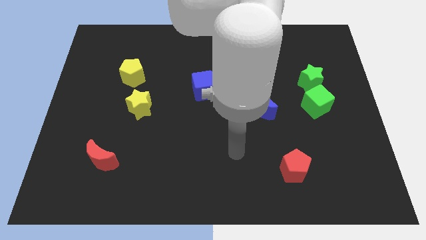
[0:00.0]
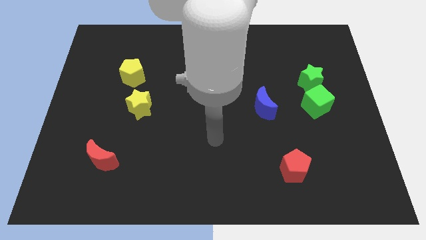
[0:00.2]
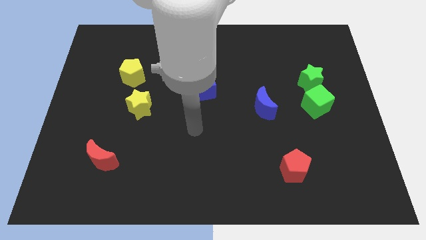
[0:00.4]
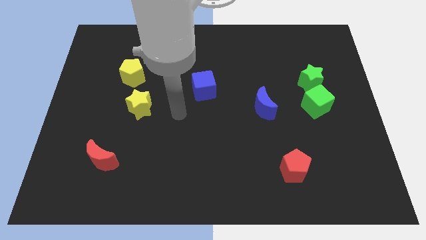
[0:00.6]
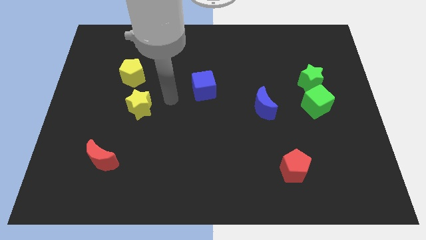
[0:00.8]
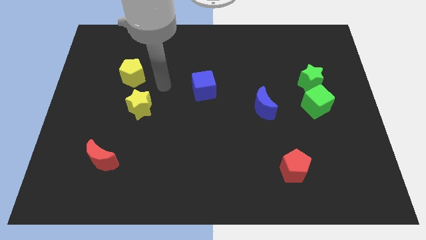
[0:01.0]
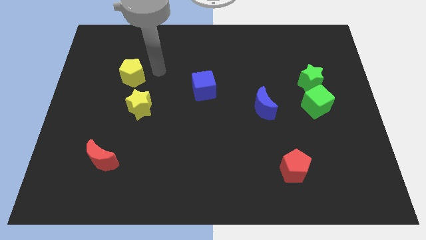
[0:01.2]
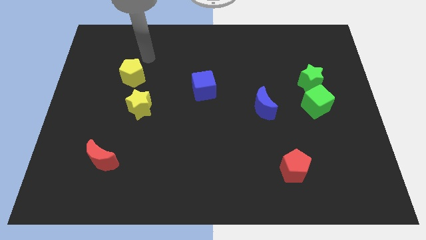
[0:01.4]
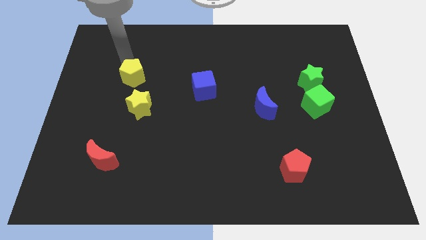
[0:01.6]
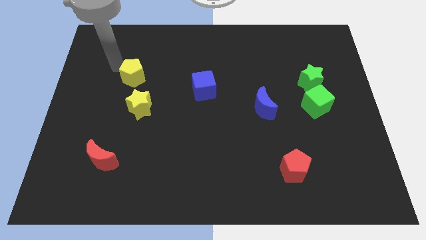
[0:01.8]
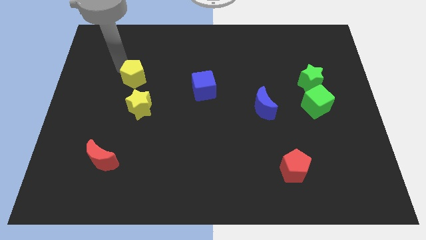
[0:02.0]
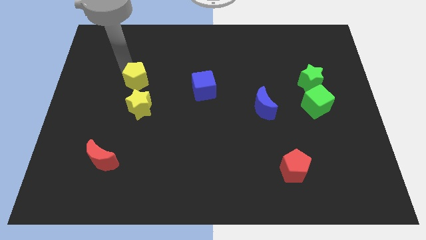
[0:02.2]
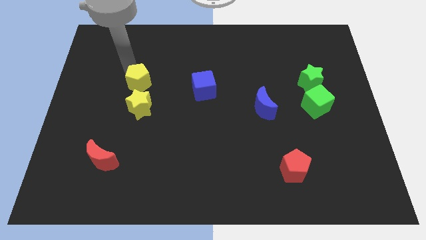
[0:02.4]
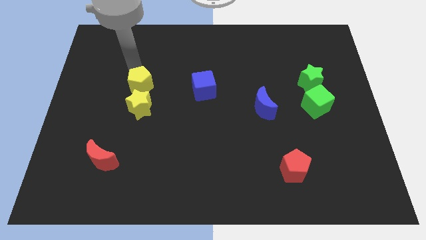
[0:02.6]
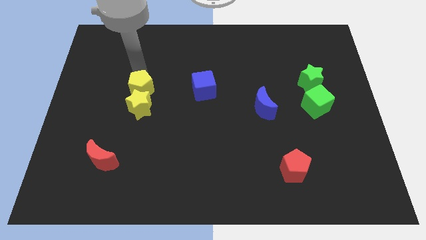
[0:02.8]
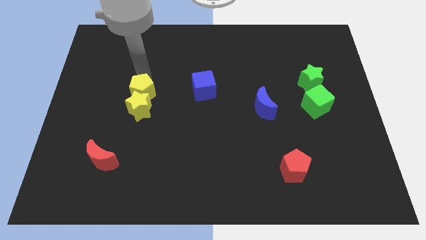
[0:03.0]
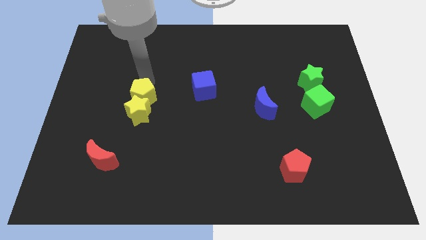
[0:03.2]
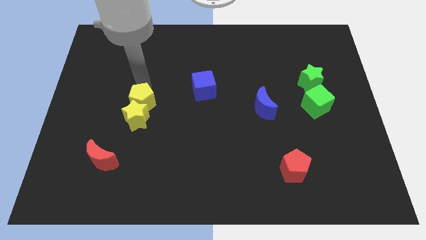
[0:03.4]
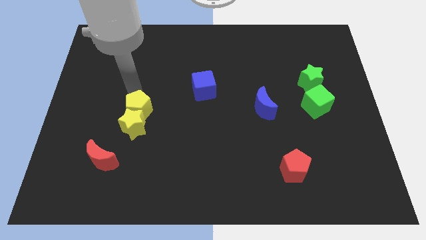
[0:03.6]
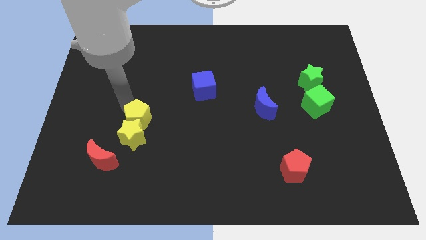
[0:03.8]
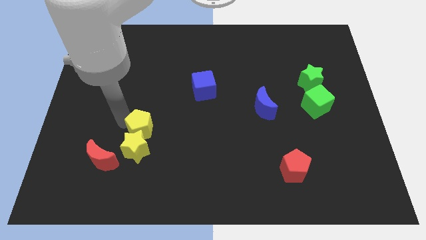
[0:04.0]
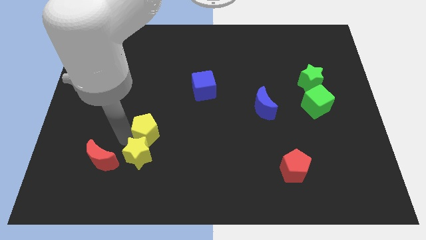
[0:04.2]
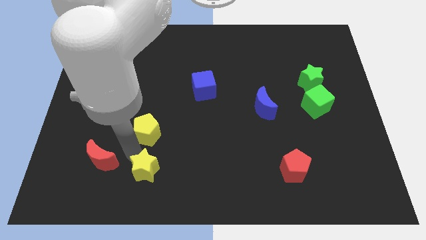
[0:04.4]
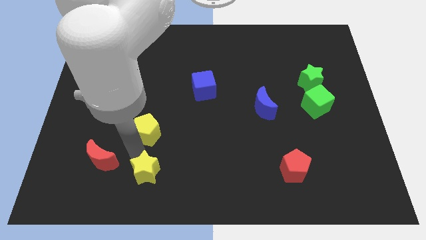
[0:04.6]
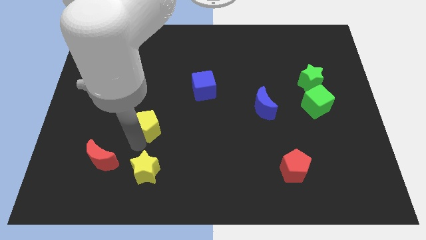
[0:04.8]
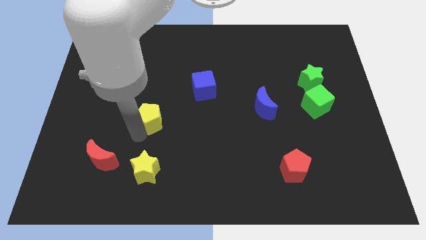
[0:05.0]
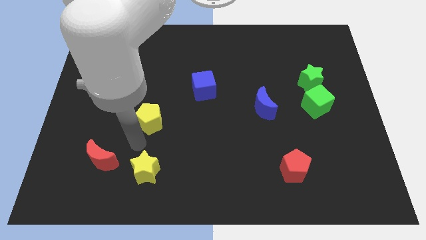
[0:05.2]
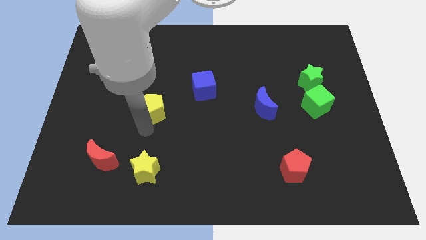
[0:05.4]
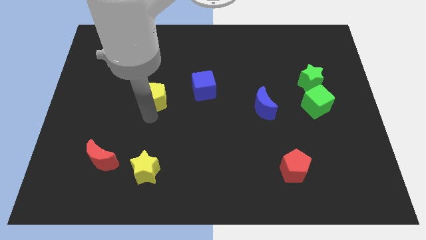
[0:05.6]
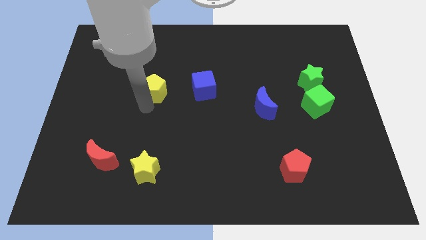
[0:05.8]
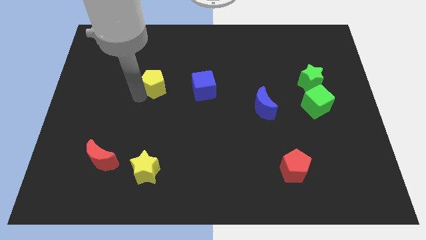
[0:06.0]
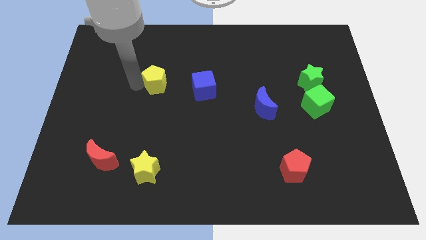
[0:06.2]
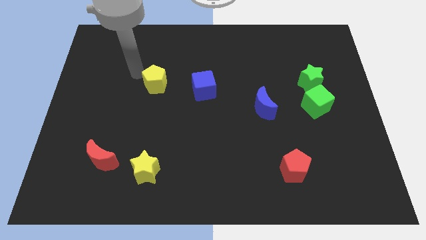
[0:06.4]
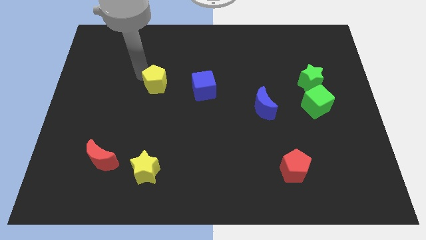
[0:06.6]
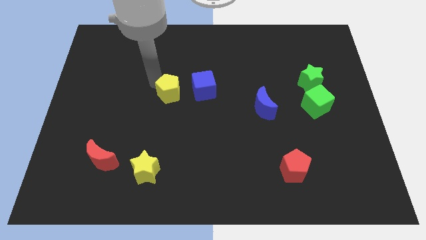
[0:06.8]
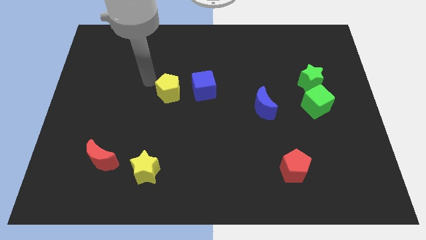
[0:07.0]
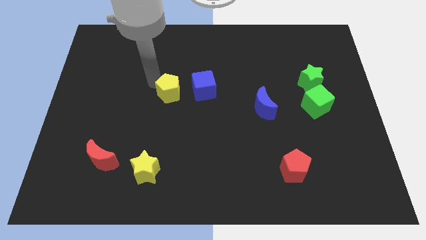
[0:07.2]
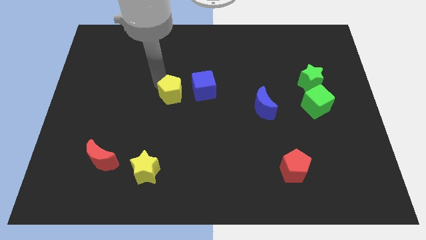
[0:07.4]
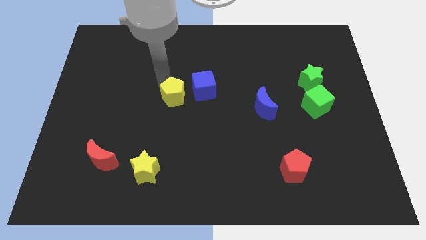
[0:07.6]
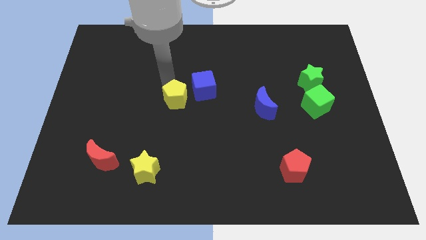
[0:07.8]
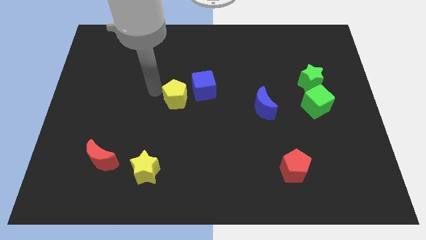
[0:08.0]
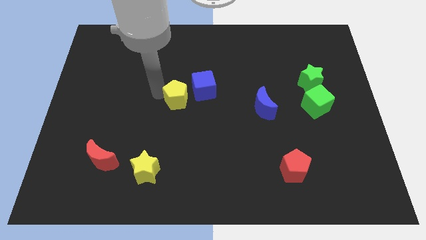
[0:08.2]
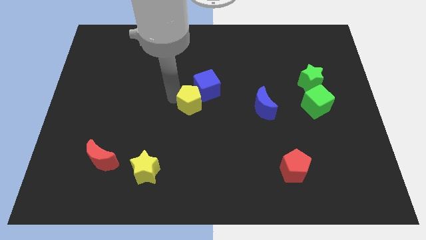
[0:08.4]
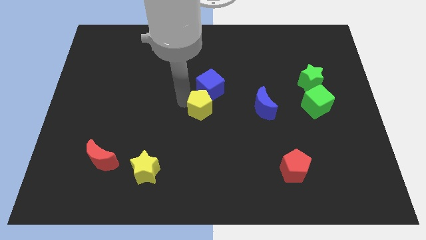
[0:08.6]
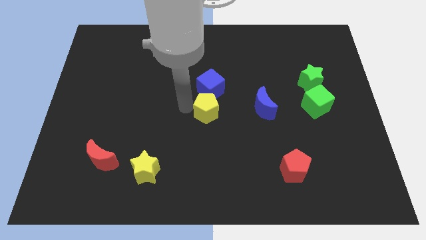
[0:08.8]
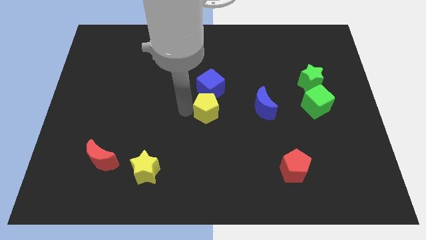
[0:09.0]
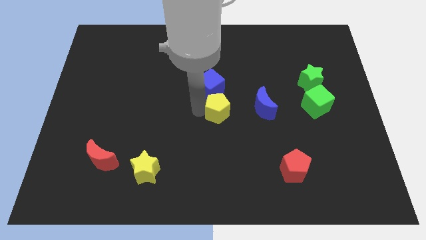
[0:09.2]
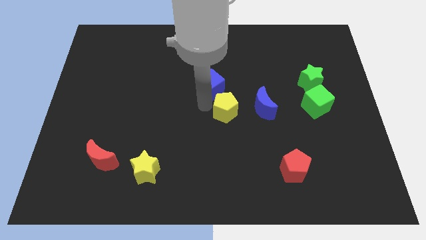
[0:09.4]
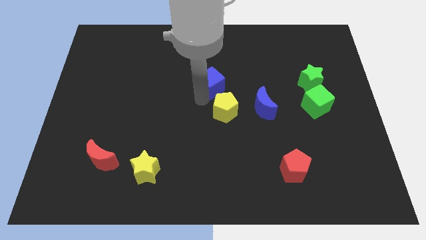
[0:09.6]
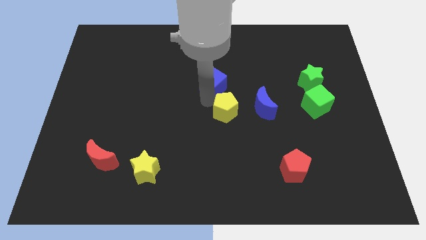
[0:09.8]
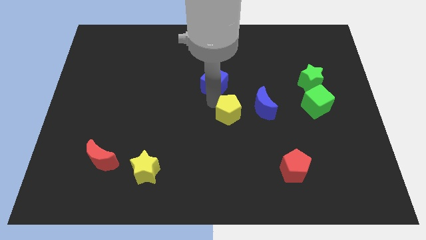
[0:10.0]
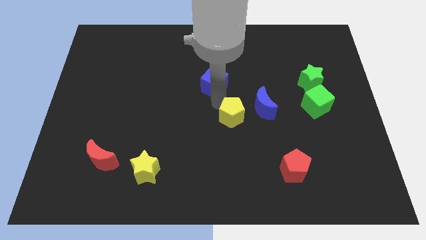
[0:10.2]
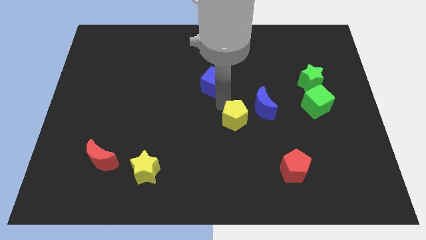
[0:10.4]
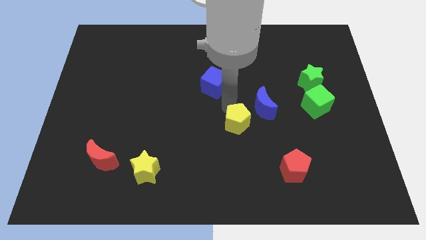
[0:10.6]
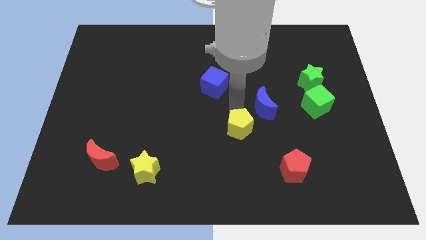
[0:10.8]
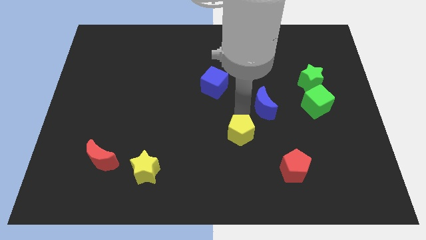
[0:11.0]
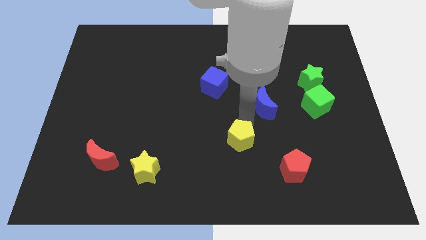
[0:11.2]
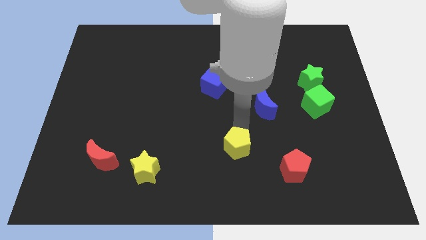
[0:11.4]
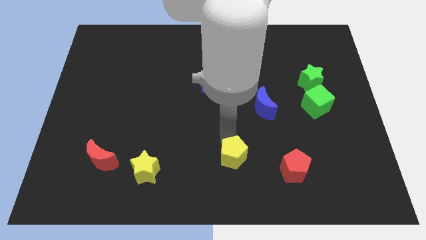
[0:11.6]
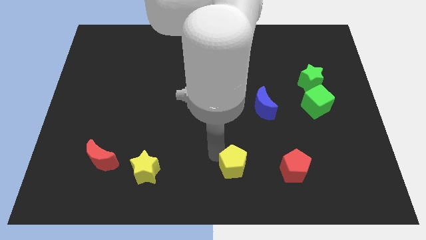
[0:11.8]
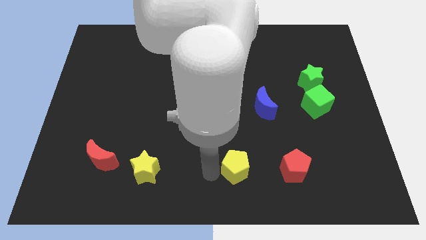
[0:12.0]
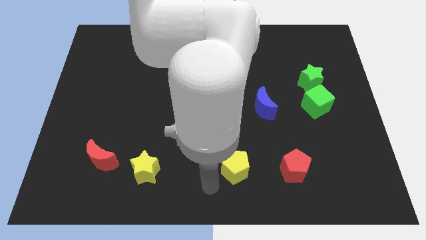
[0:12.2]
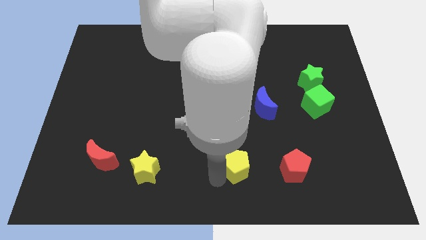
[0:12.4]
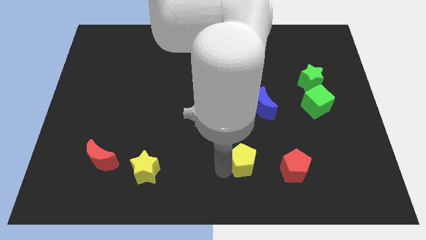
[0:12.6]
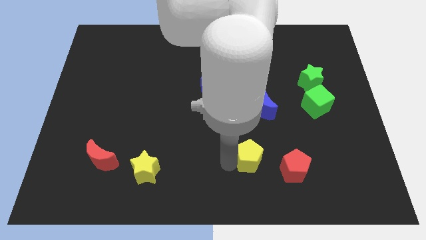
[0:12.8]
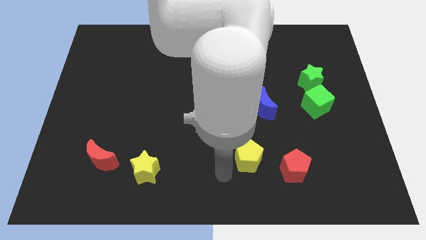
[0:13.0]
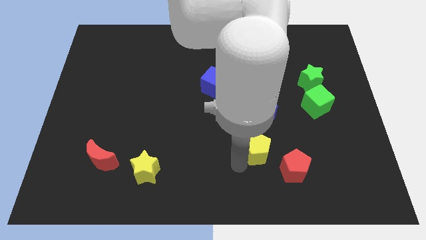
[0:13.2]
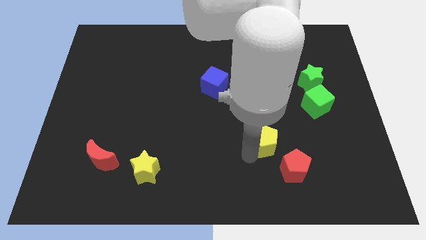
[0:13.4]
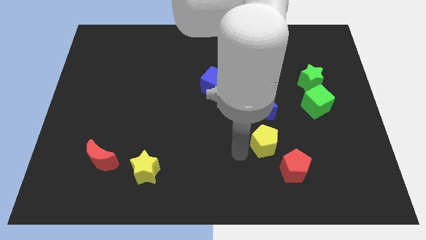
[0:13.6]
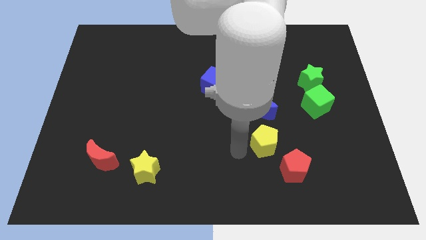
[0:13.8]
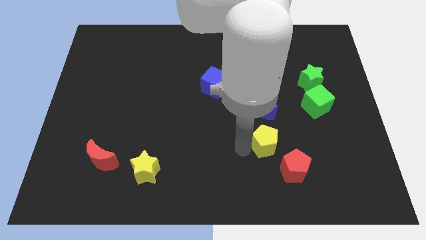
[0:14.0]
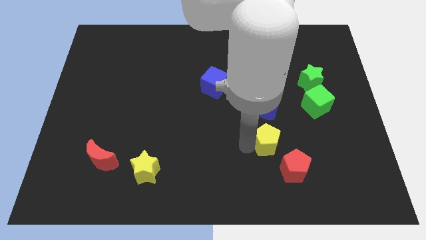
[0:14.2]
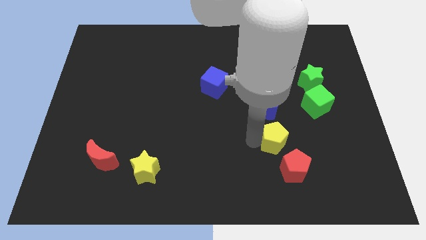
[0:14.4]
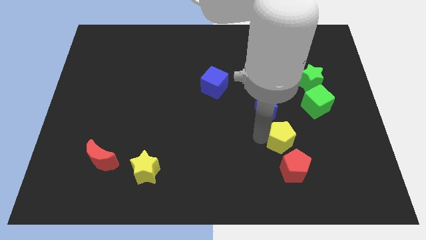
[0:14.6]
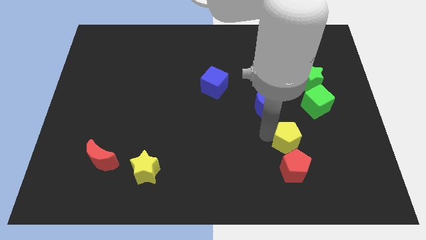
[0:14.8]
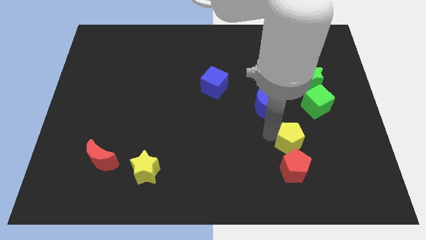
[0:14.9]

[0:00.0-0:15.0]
push the yellow pentagon diagonally up and to the right of the red pentagon
